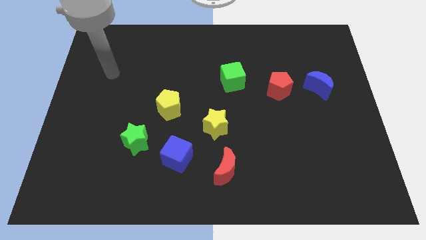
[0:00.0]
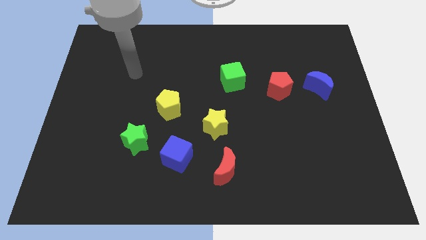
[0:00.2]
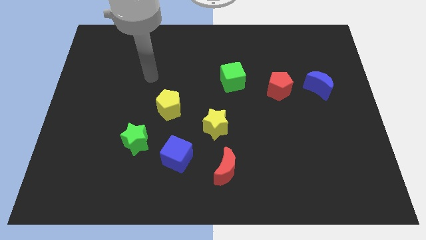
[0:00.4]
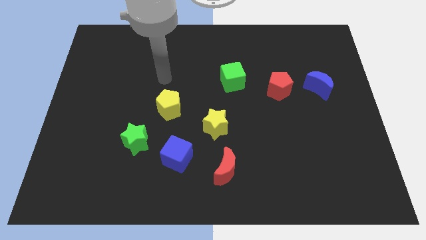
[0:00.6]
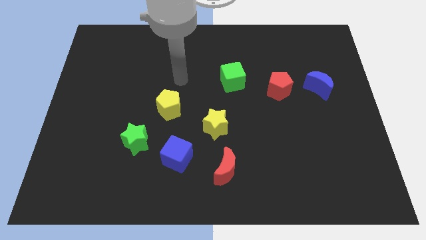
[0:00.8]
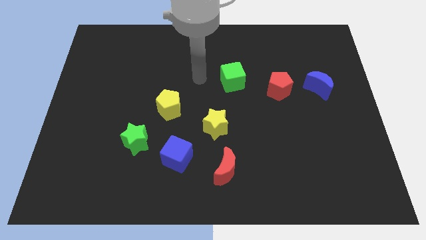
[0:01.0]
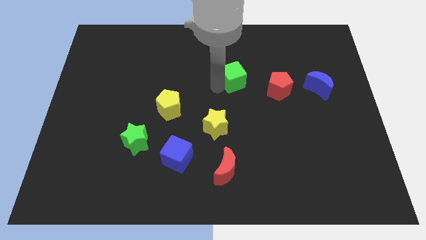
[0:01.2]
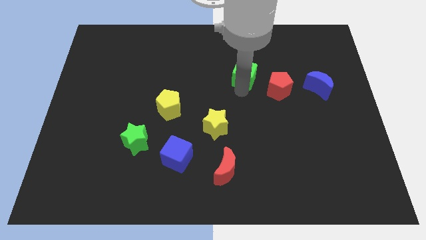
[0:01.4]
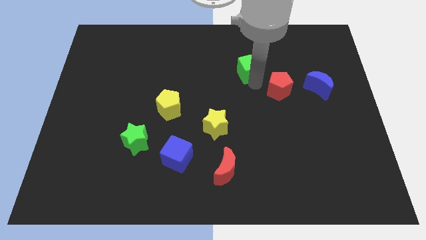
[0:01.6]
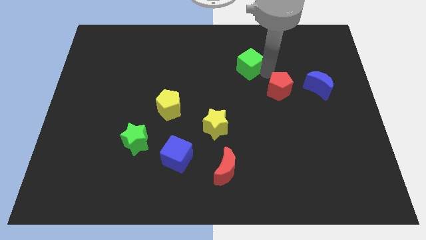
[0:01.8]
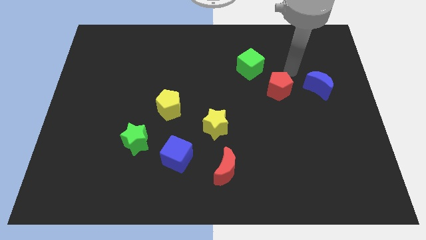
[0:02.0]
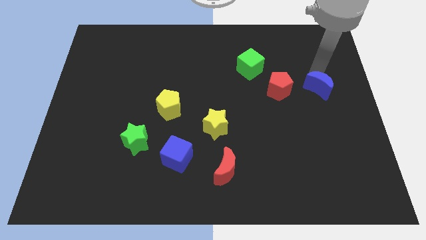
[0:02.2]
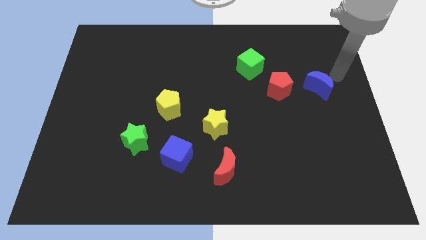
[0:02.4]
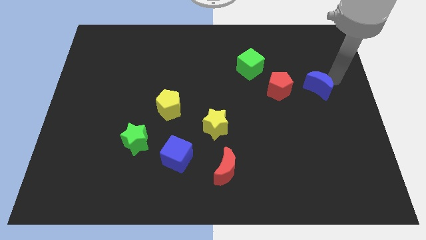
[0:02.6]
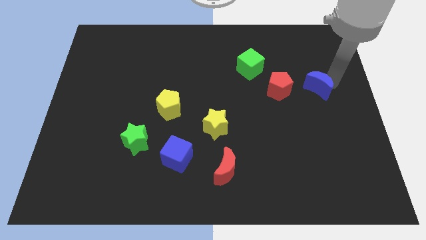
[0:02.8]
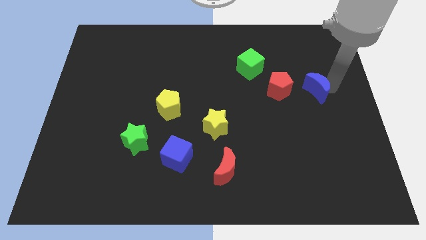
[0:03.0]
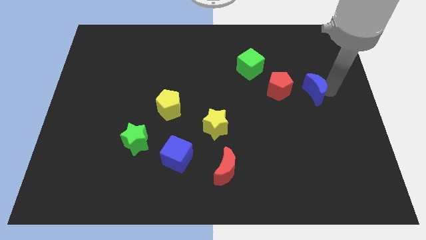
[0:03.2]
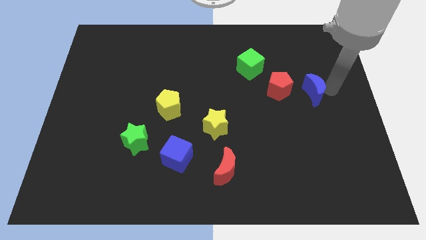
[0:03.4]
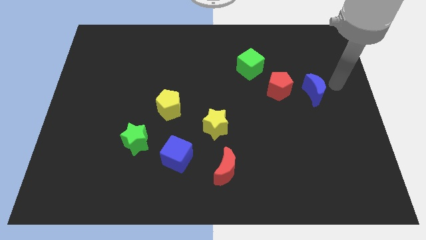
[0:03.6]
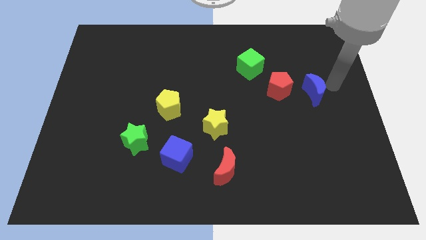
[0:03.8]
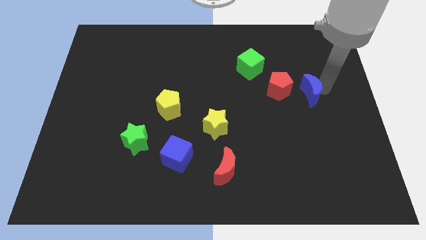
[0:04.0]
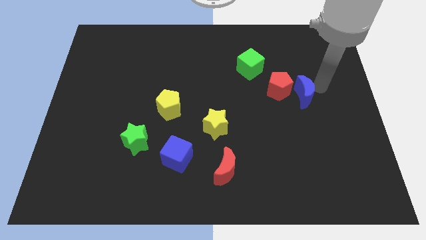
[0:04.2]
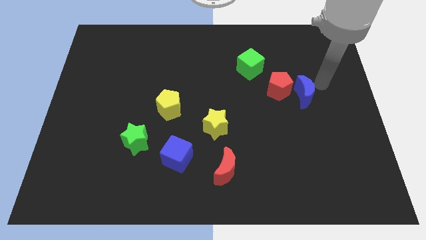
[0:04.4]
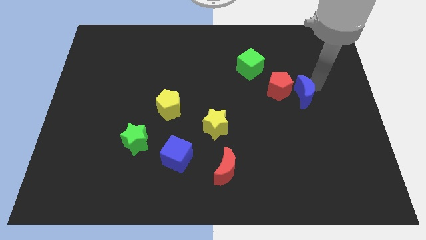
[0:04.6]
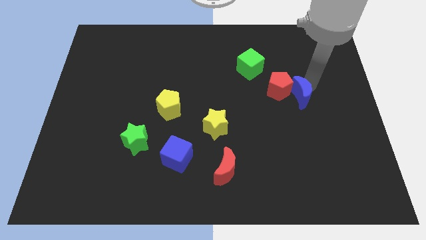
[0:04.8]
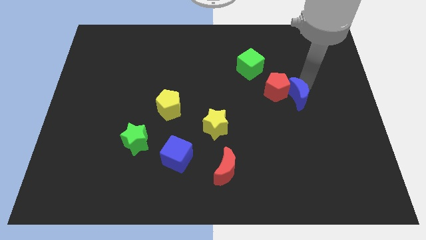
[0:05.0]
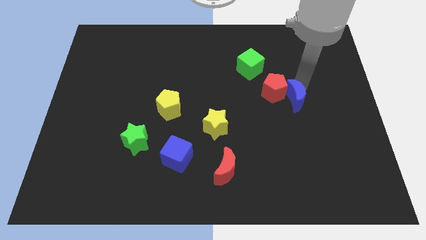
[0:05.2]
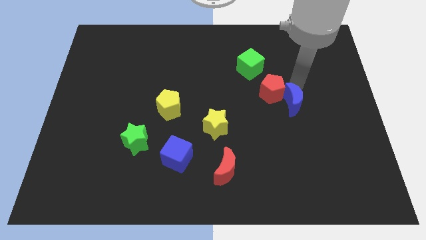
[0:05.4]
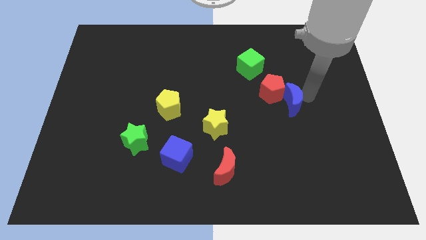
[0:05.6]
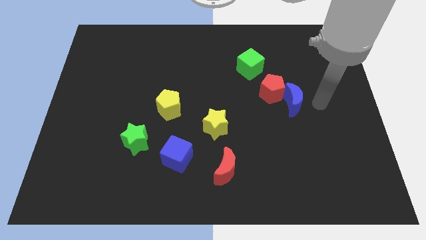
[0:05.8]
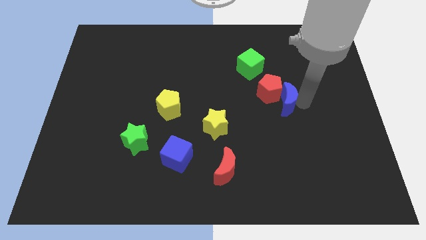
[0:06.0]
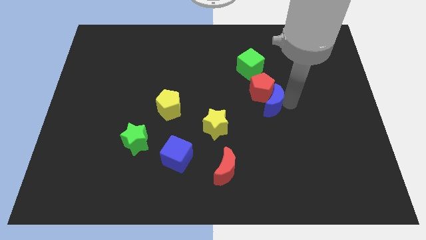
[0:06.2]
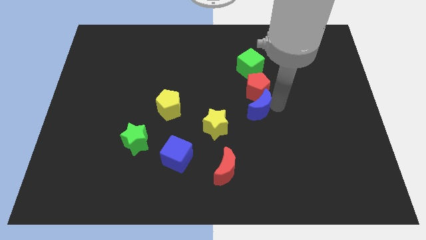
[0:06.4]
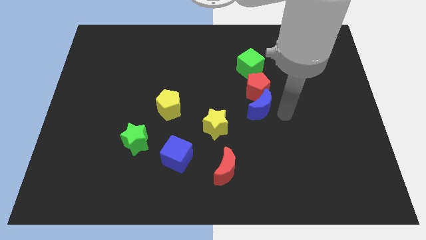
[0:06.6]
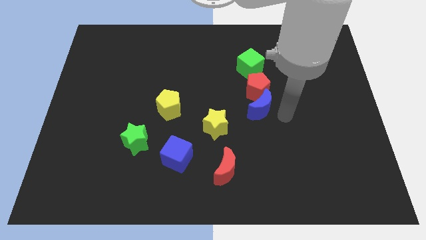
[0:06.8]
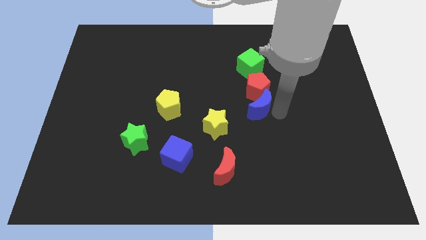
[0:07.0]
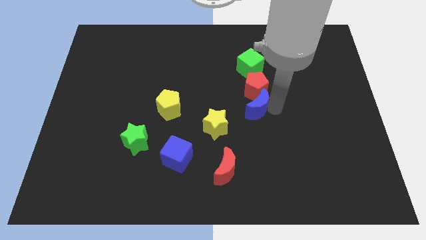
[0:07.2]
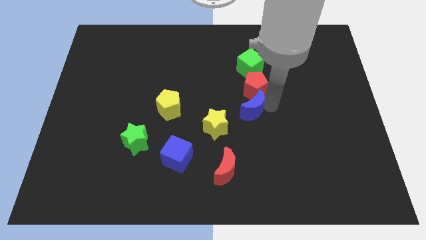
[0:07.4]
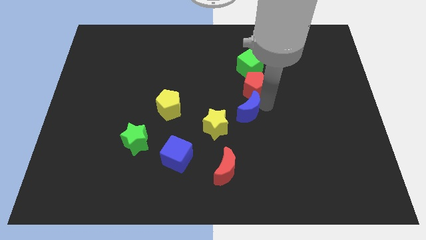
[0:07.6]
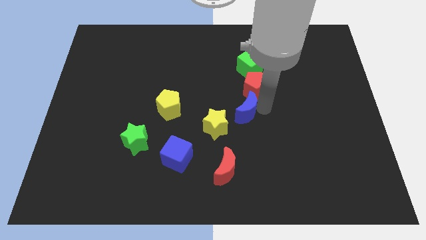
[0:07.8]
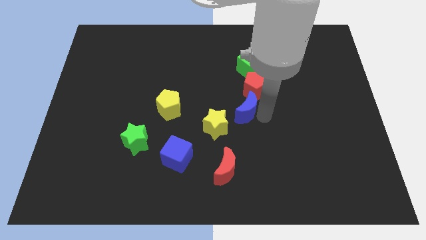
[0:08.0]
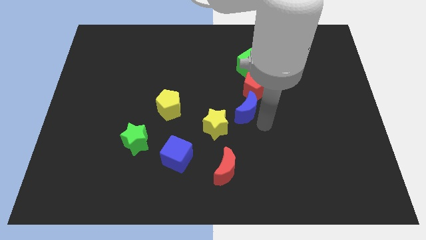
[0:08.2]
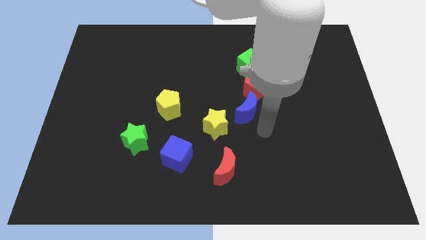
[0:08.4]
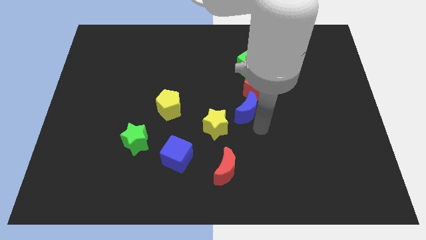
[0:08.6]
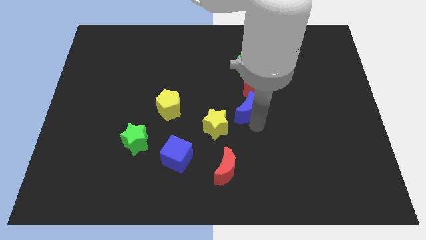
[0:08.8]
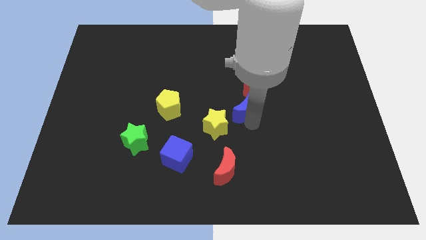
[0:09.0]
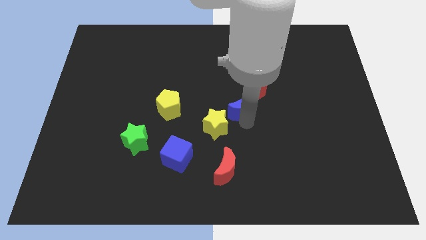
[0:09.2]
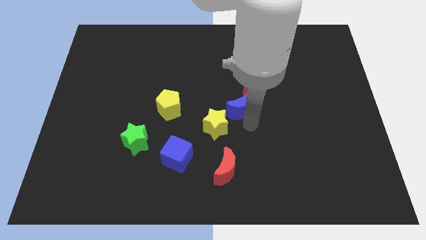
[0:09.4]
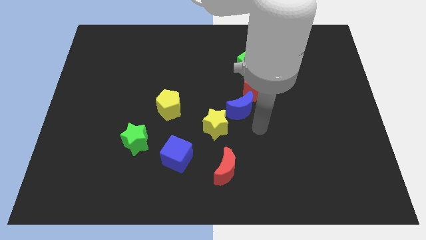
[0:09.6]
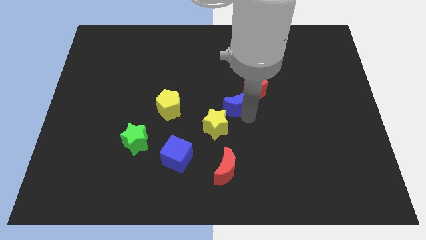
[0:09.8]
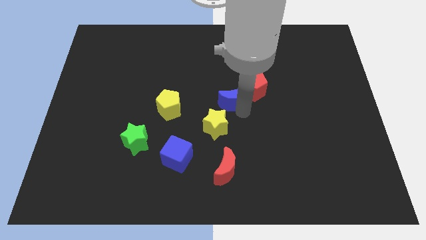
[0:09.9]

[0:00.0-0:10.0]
move the blue moon left of the red pentagon

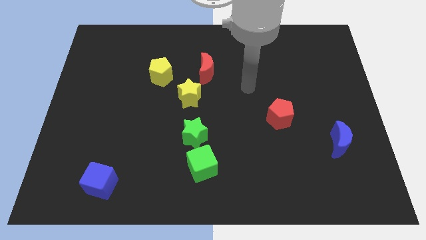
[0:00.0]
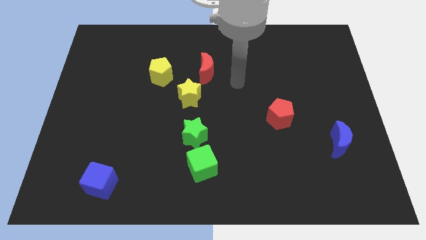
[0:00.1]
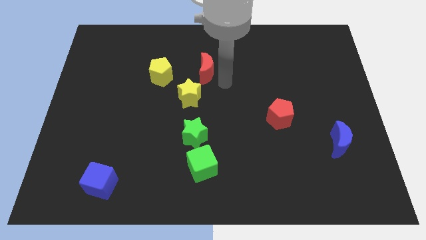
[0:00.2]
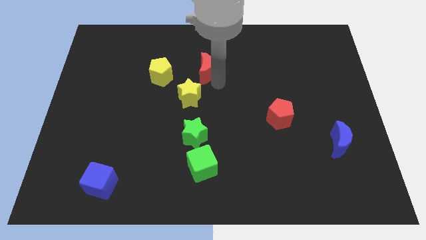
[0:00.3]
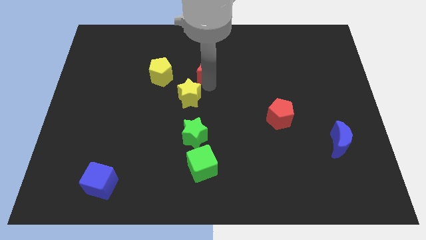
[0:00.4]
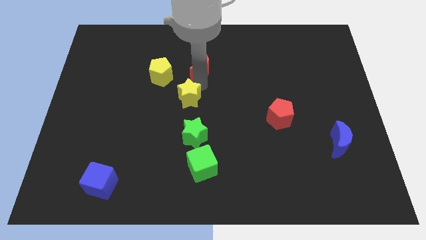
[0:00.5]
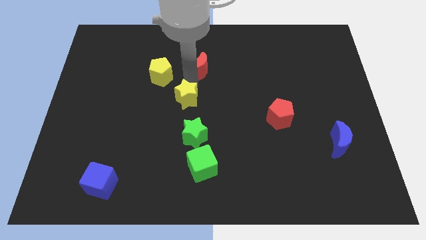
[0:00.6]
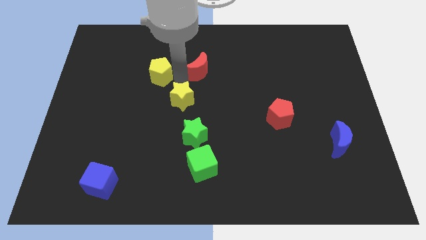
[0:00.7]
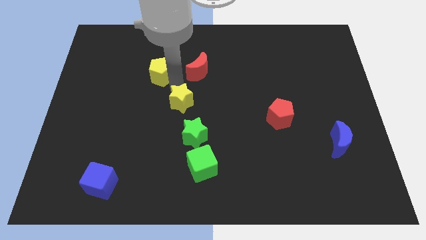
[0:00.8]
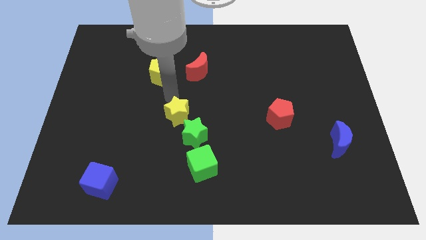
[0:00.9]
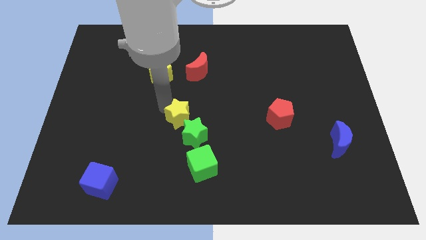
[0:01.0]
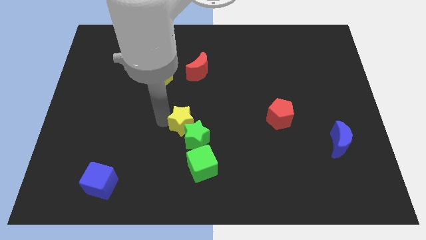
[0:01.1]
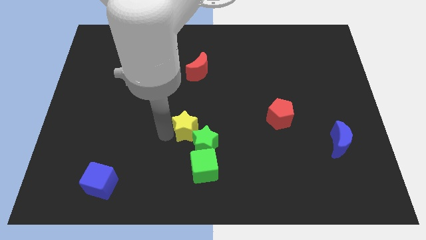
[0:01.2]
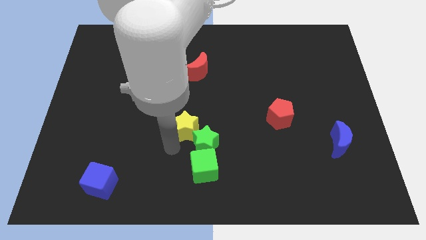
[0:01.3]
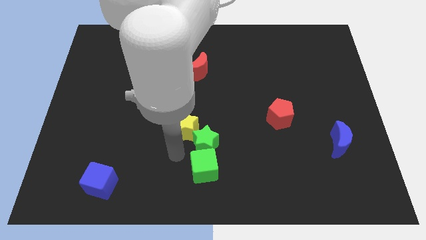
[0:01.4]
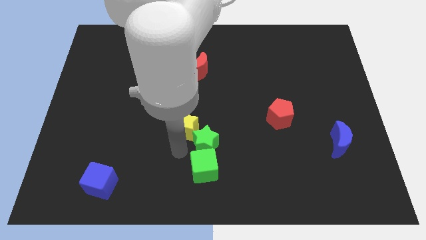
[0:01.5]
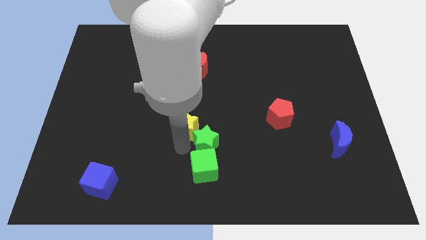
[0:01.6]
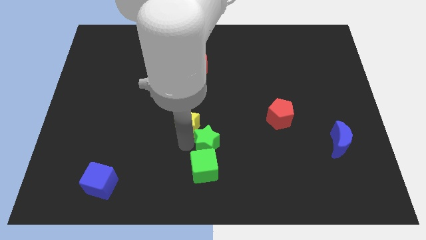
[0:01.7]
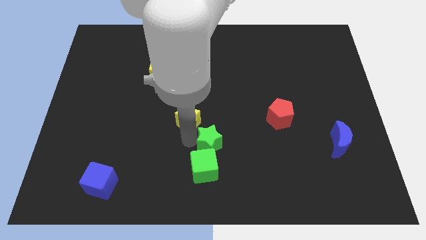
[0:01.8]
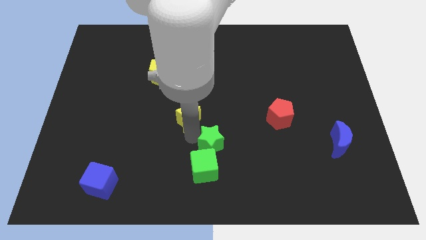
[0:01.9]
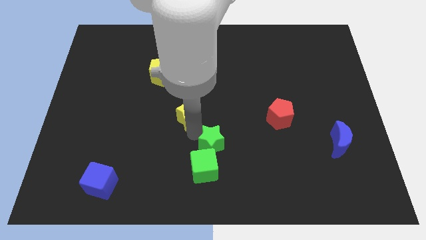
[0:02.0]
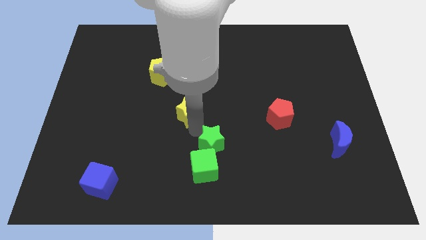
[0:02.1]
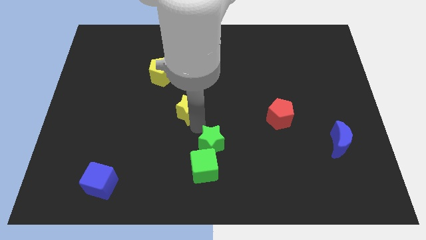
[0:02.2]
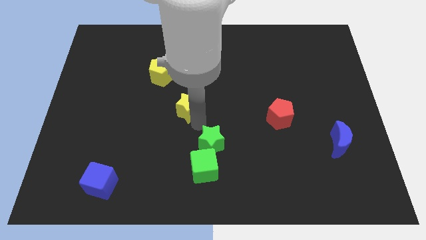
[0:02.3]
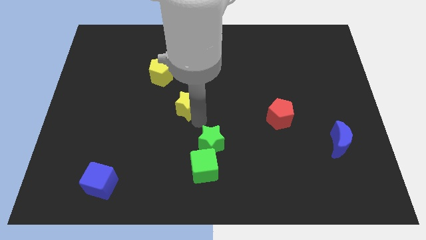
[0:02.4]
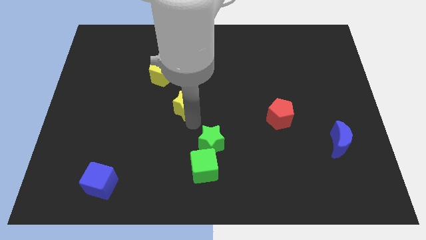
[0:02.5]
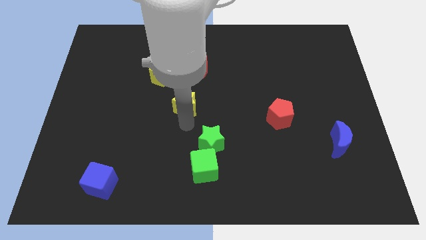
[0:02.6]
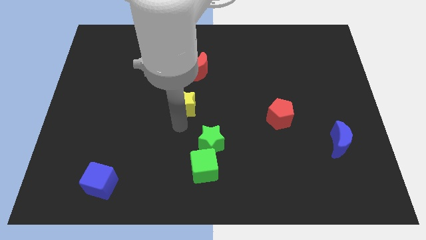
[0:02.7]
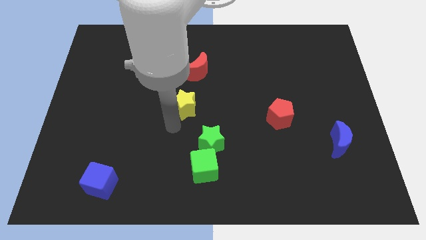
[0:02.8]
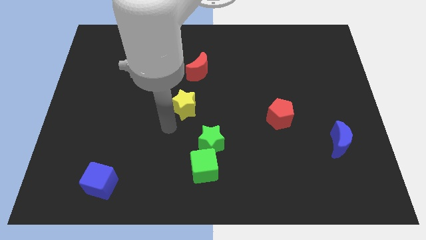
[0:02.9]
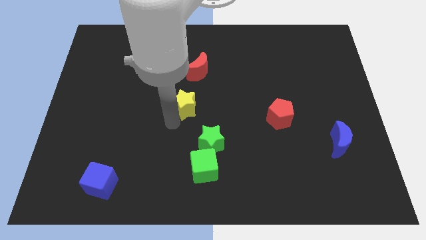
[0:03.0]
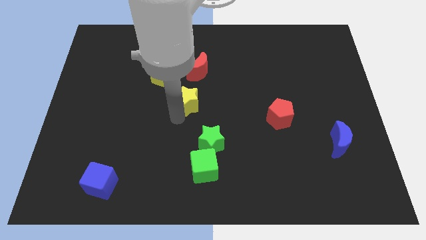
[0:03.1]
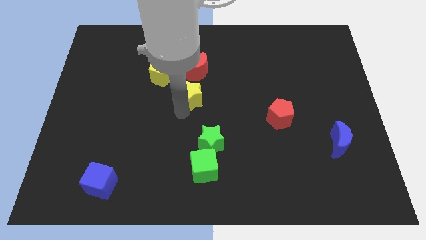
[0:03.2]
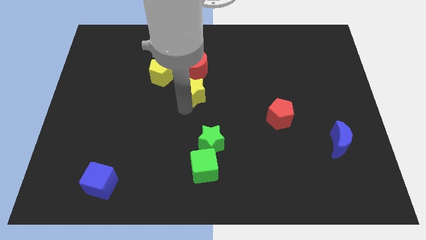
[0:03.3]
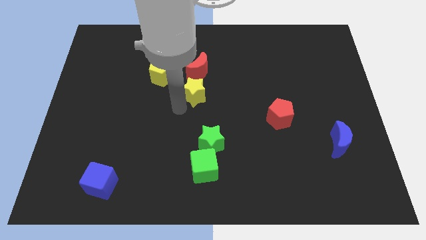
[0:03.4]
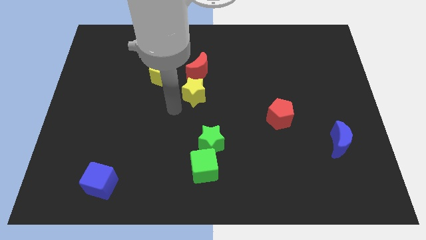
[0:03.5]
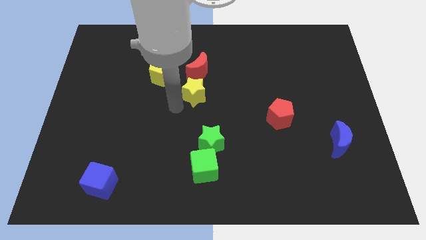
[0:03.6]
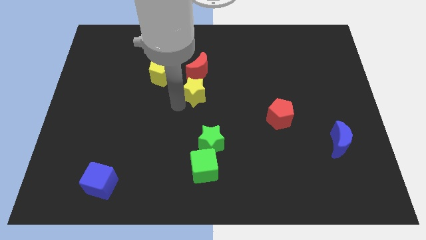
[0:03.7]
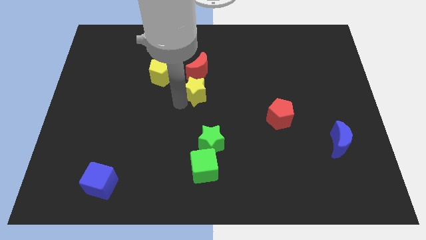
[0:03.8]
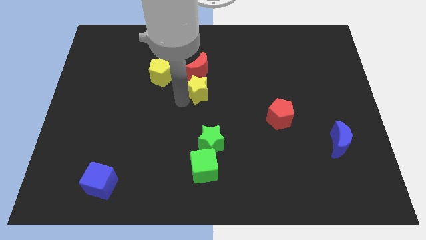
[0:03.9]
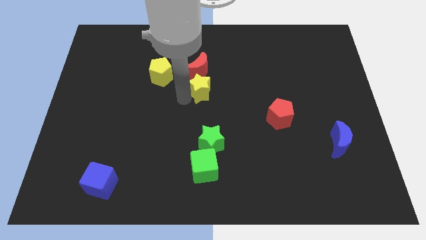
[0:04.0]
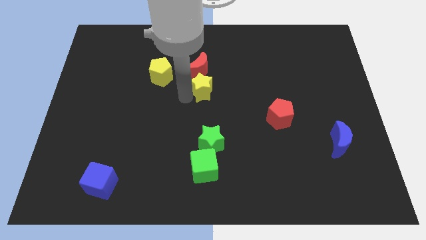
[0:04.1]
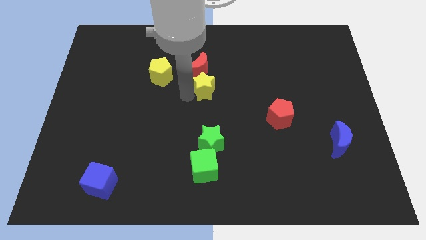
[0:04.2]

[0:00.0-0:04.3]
slide the yellow star just right of the yellow pentagon
